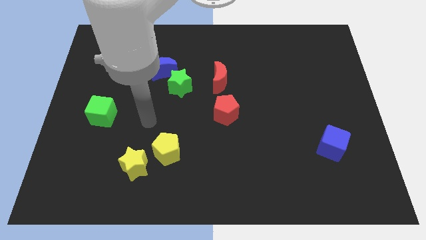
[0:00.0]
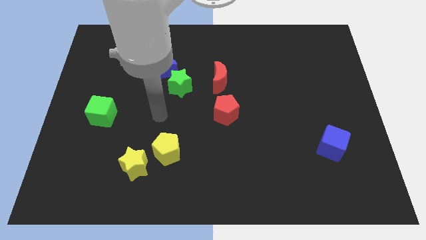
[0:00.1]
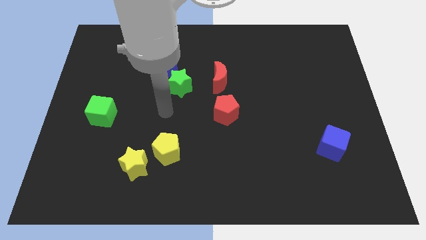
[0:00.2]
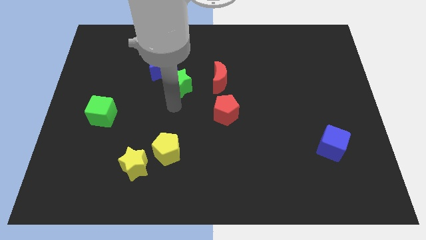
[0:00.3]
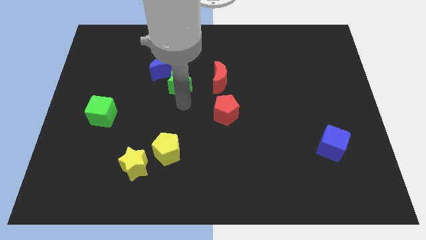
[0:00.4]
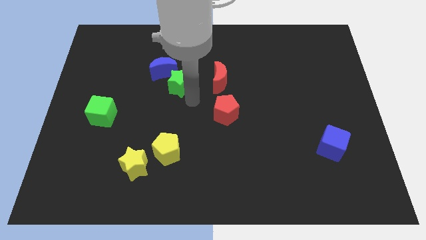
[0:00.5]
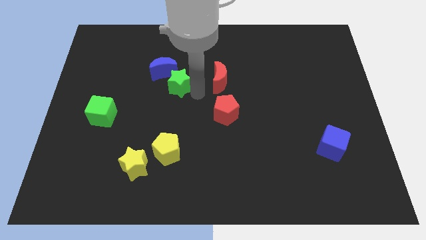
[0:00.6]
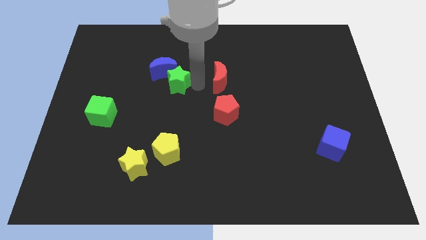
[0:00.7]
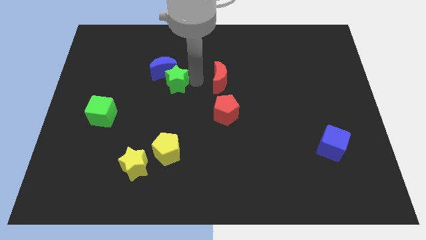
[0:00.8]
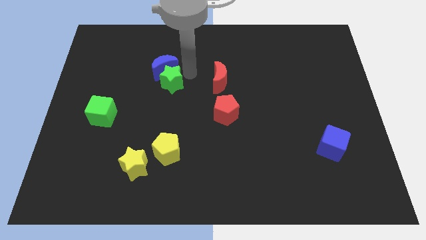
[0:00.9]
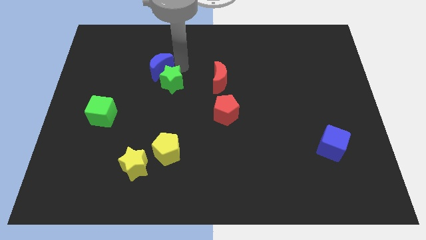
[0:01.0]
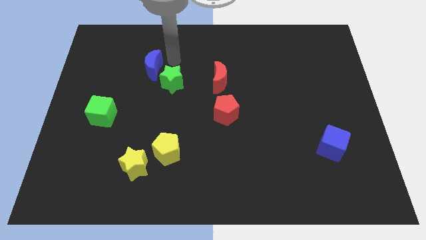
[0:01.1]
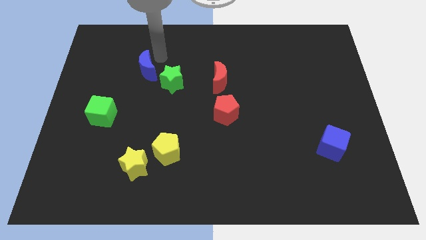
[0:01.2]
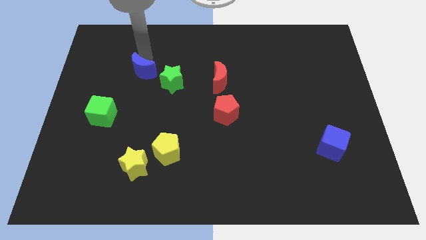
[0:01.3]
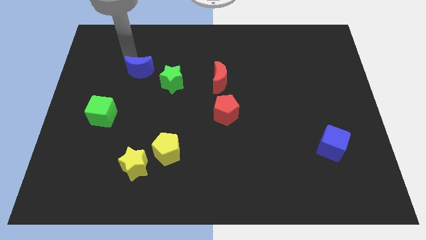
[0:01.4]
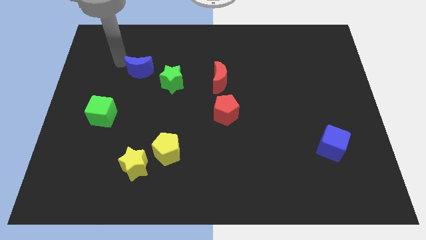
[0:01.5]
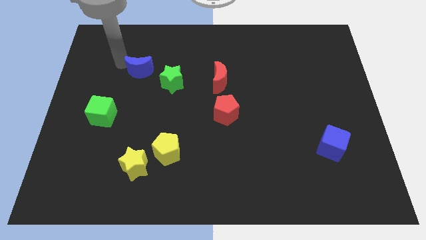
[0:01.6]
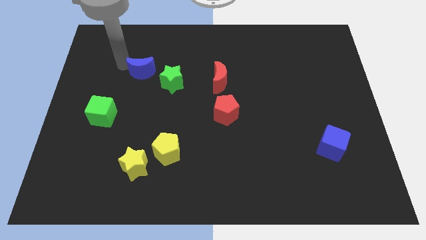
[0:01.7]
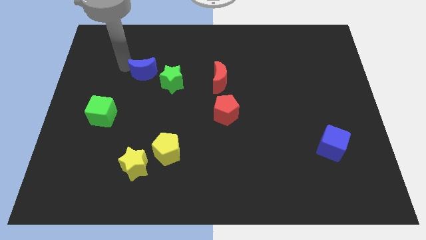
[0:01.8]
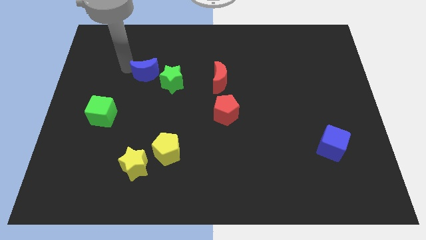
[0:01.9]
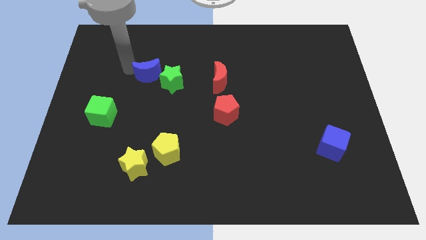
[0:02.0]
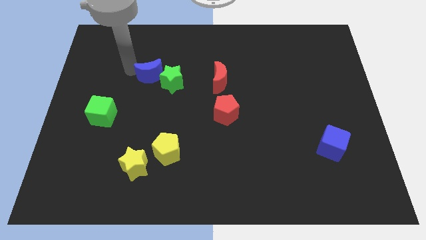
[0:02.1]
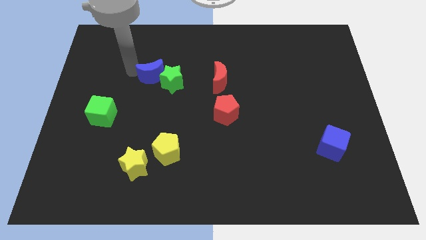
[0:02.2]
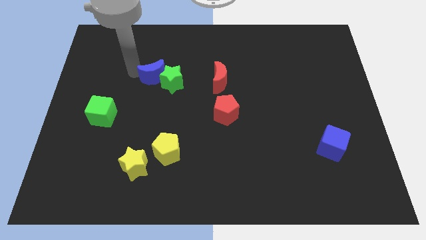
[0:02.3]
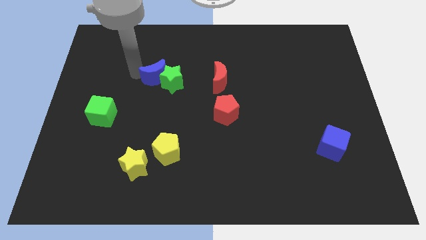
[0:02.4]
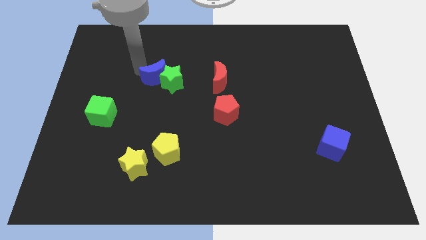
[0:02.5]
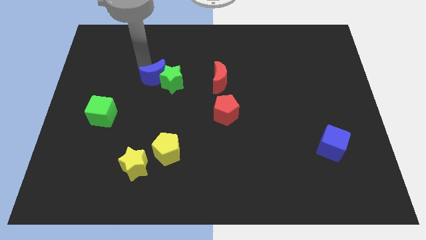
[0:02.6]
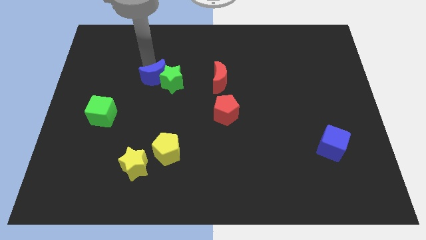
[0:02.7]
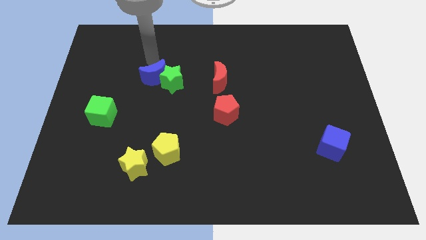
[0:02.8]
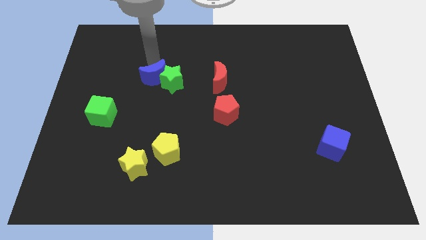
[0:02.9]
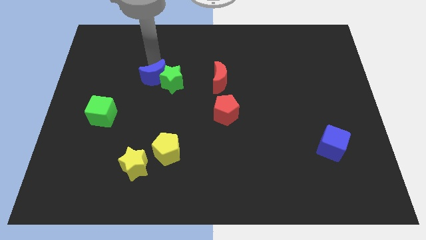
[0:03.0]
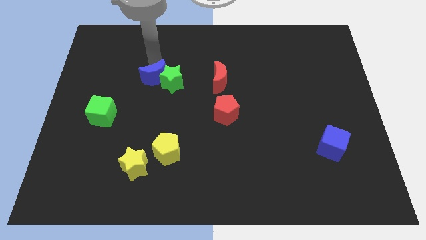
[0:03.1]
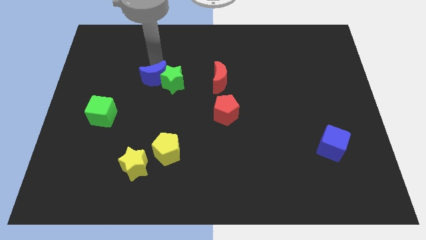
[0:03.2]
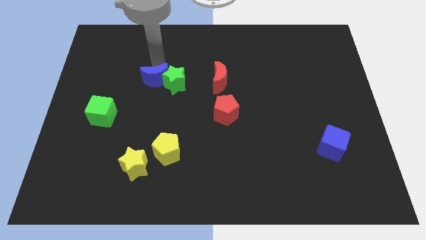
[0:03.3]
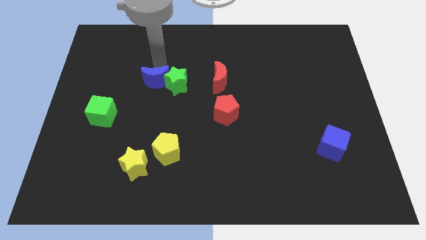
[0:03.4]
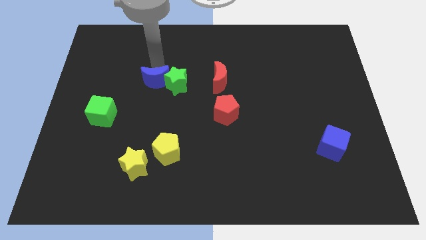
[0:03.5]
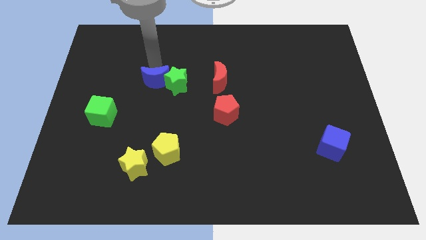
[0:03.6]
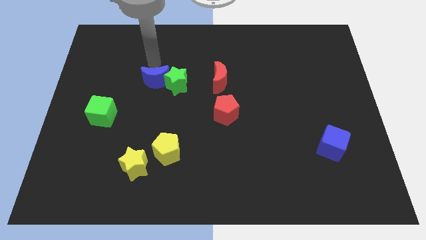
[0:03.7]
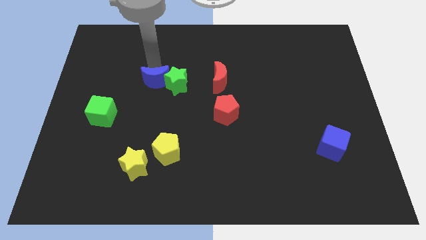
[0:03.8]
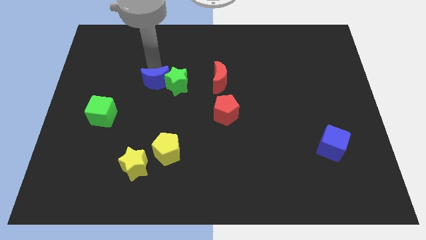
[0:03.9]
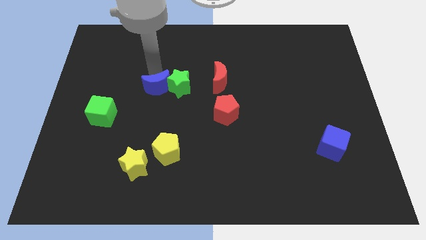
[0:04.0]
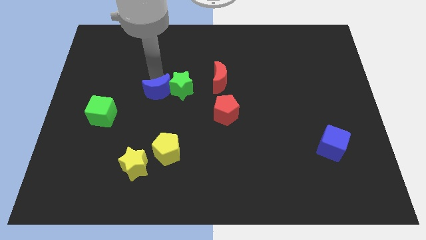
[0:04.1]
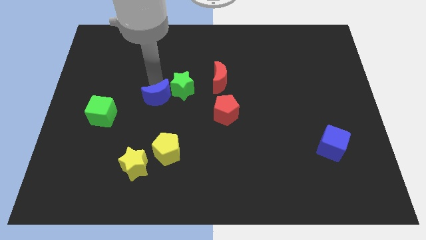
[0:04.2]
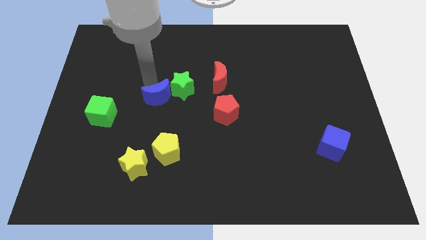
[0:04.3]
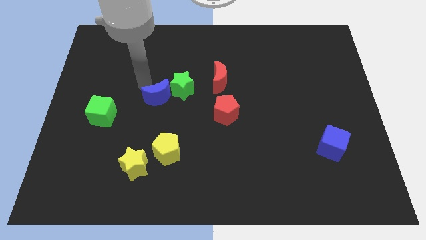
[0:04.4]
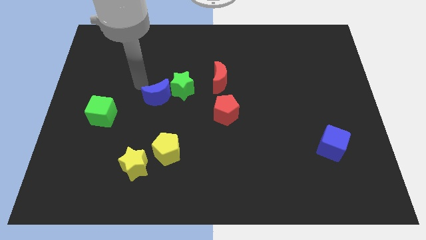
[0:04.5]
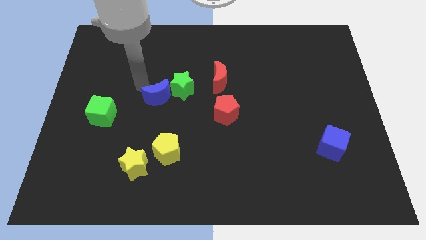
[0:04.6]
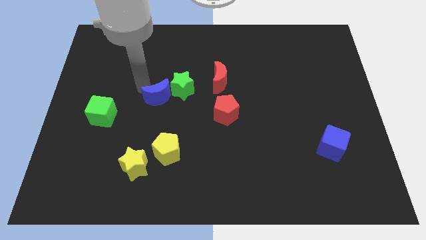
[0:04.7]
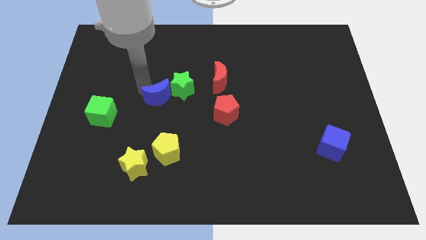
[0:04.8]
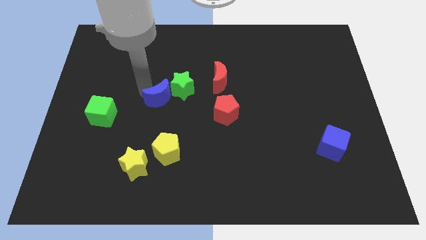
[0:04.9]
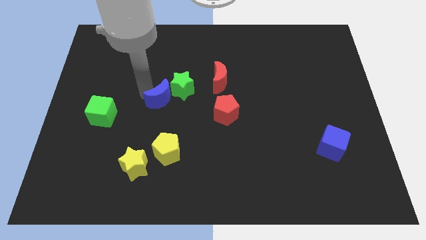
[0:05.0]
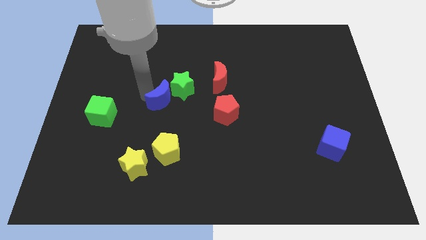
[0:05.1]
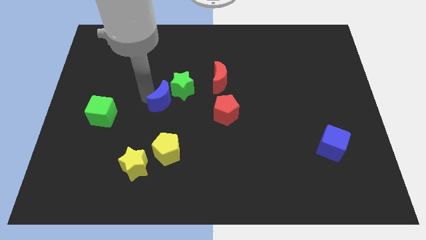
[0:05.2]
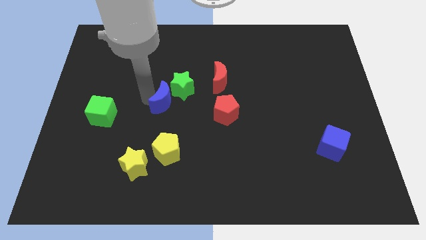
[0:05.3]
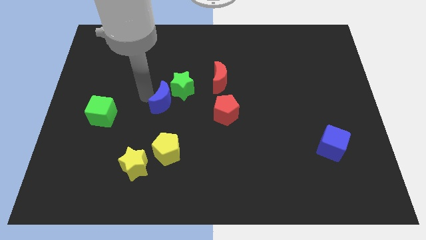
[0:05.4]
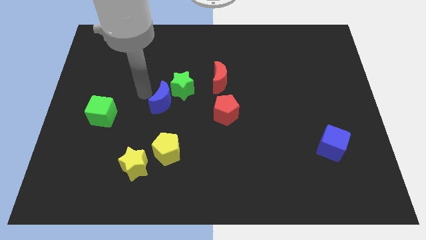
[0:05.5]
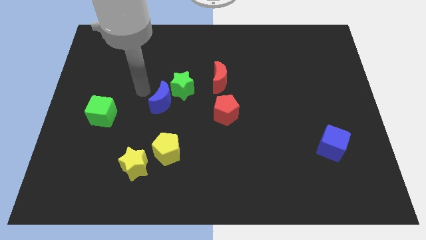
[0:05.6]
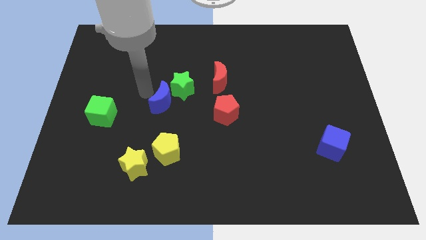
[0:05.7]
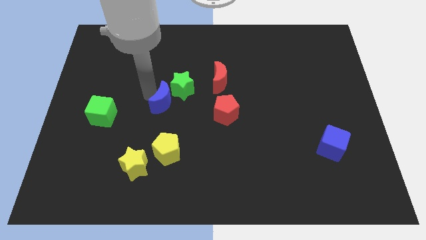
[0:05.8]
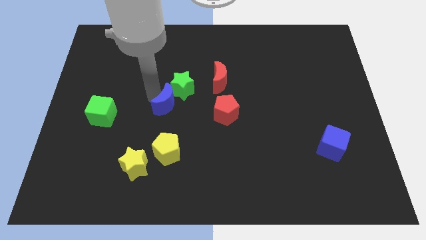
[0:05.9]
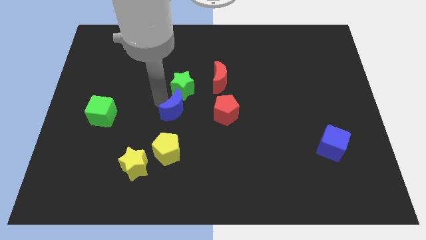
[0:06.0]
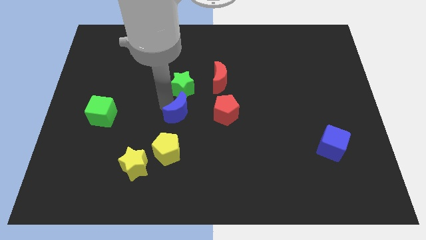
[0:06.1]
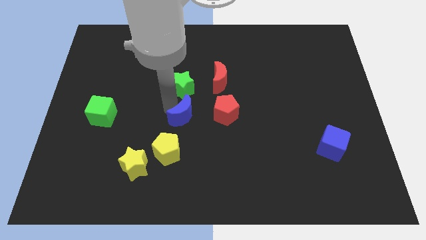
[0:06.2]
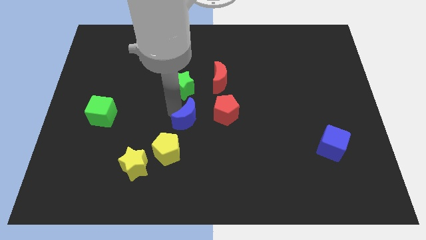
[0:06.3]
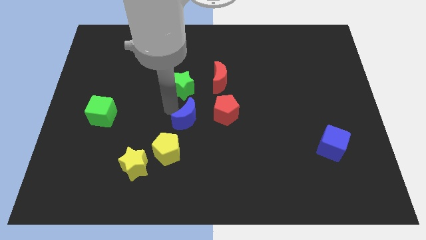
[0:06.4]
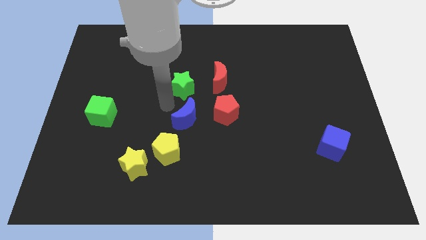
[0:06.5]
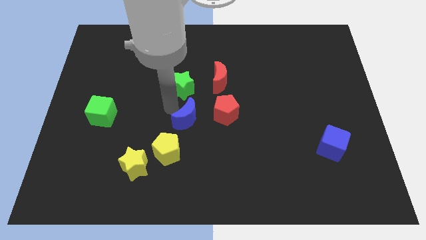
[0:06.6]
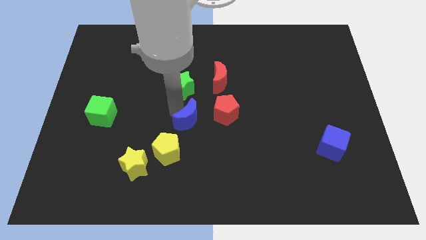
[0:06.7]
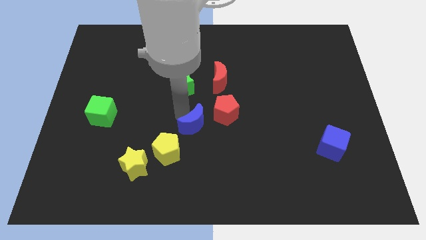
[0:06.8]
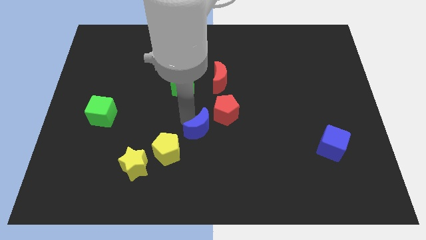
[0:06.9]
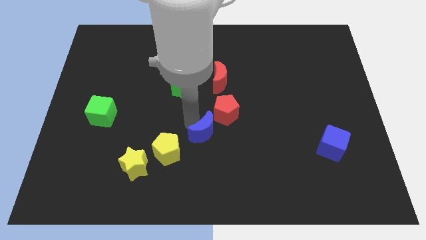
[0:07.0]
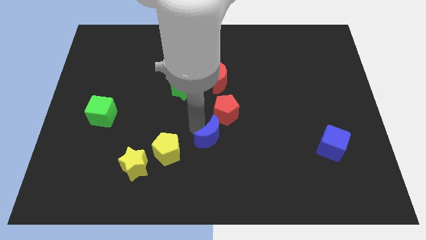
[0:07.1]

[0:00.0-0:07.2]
slide the blue moon downwards and right diagonally

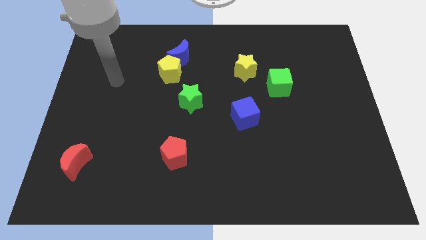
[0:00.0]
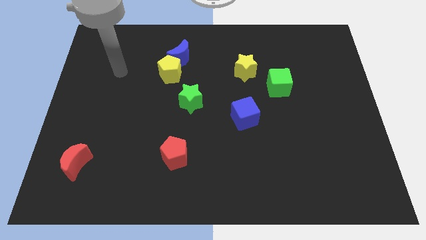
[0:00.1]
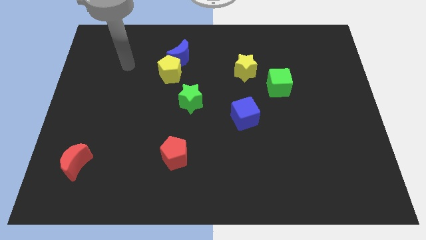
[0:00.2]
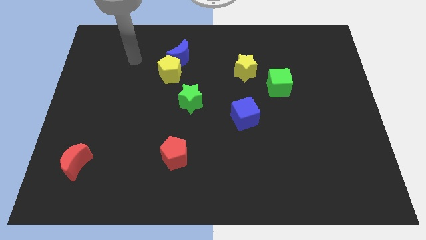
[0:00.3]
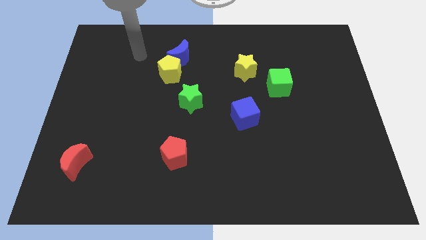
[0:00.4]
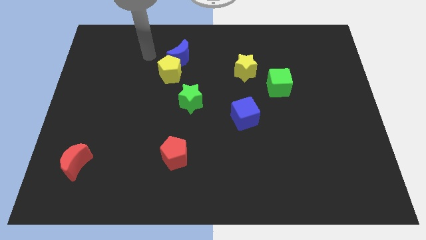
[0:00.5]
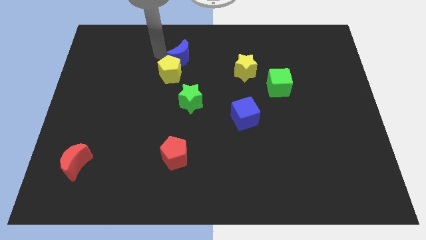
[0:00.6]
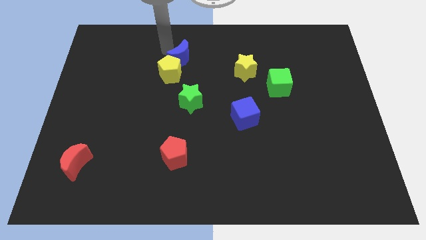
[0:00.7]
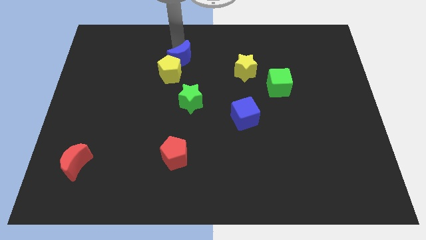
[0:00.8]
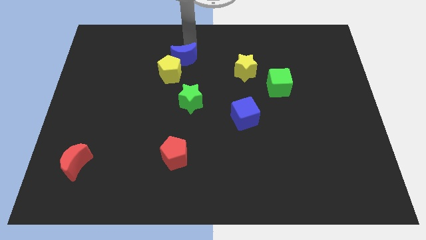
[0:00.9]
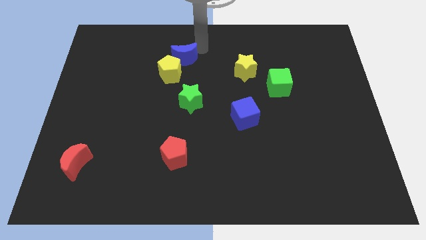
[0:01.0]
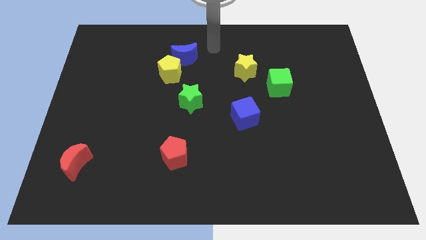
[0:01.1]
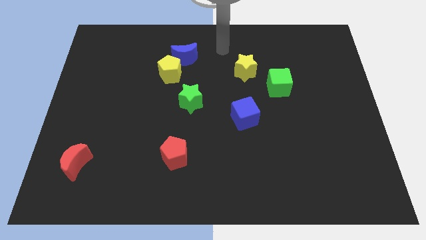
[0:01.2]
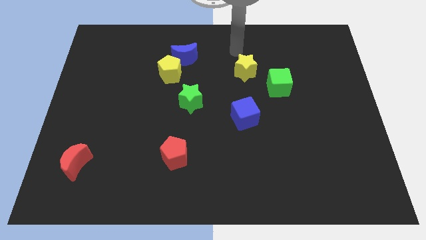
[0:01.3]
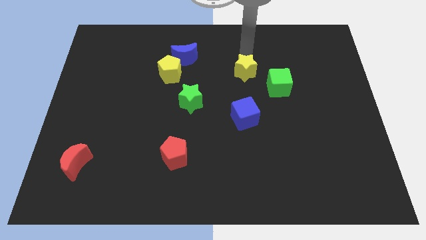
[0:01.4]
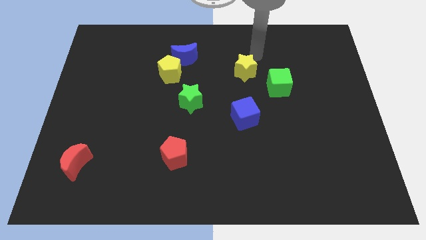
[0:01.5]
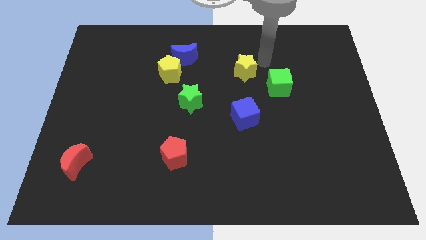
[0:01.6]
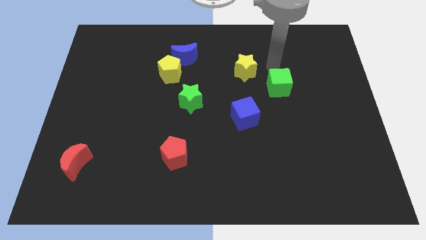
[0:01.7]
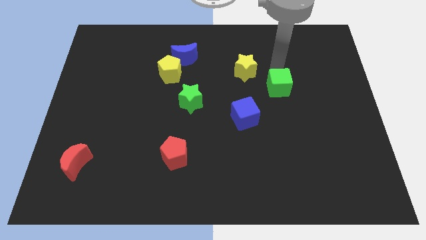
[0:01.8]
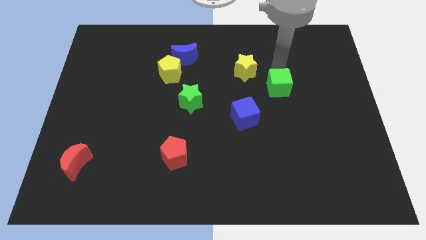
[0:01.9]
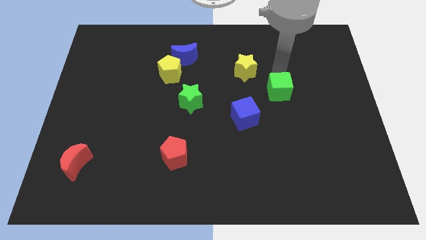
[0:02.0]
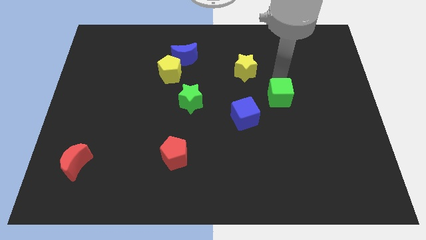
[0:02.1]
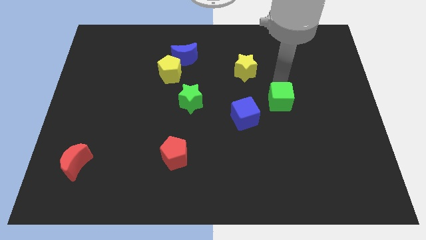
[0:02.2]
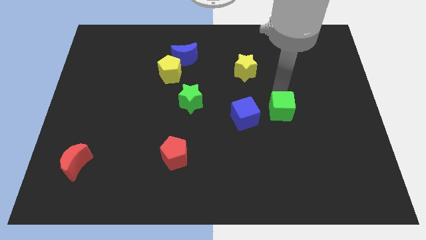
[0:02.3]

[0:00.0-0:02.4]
slightly push the green cube downwards
